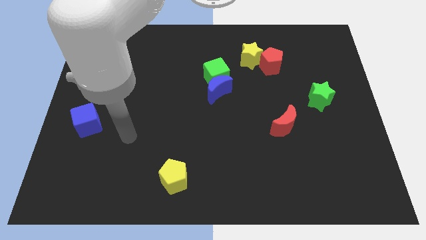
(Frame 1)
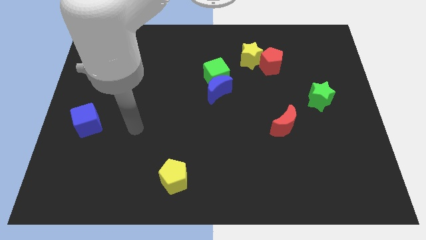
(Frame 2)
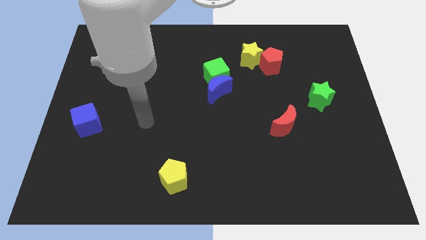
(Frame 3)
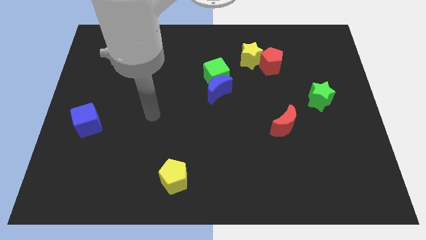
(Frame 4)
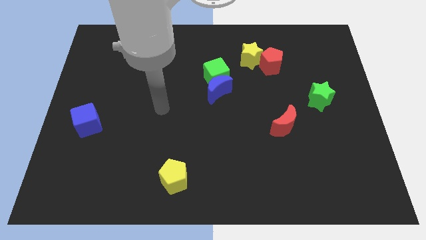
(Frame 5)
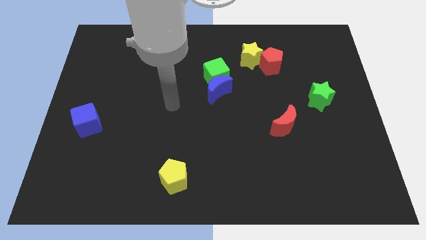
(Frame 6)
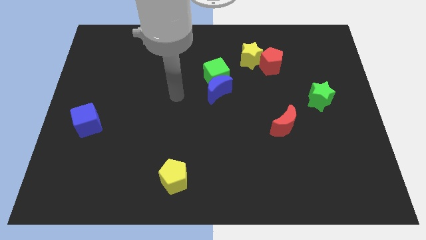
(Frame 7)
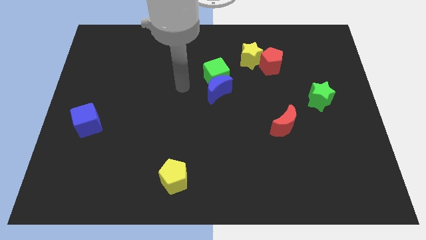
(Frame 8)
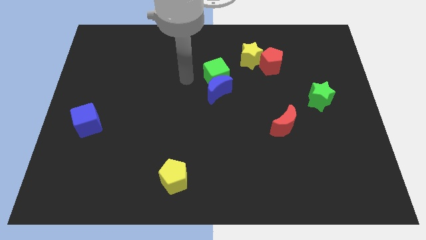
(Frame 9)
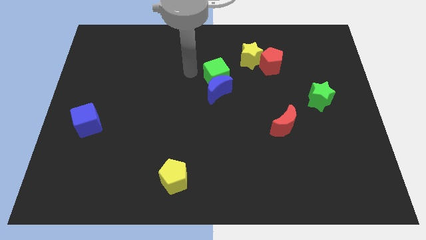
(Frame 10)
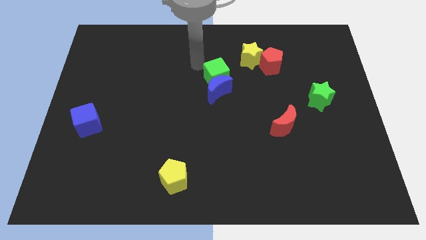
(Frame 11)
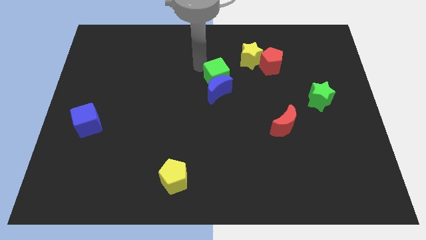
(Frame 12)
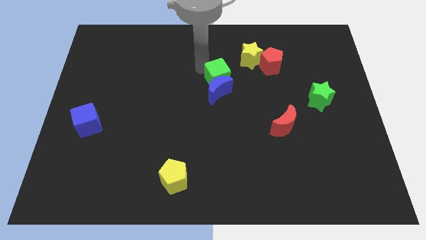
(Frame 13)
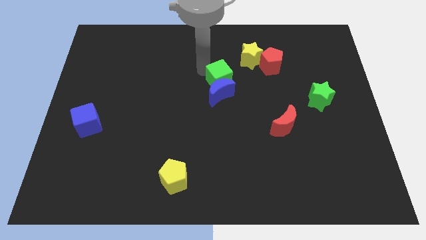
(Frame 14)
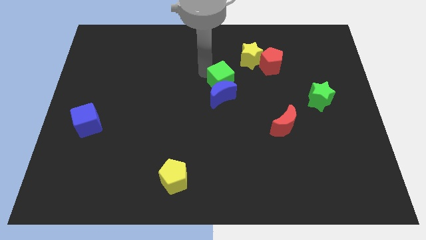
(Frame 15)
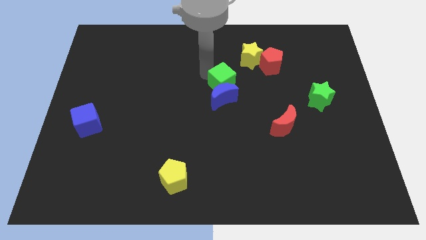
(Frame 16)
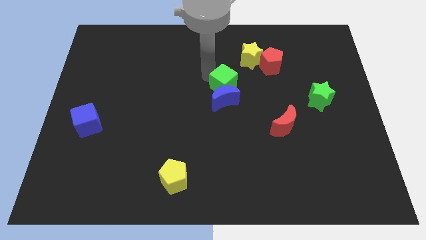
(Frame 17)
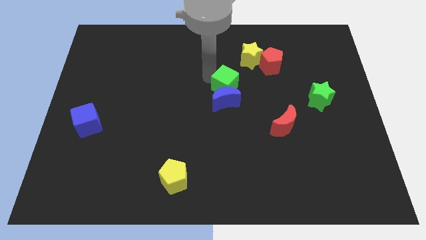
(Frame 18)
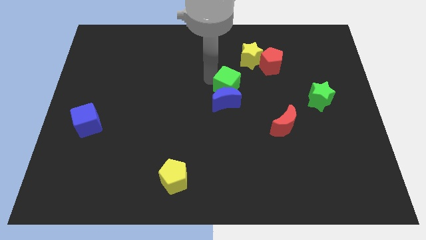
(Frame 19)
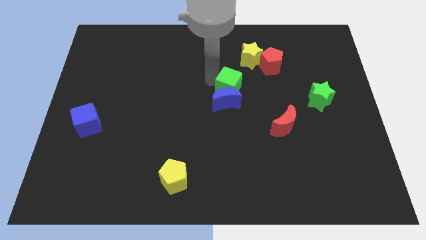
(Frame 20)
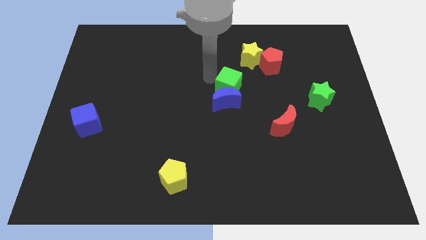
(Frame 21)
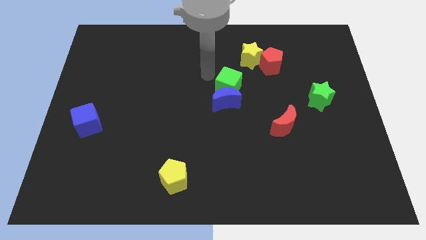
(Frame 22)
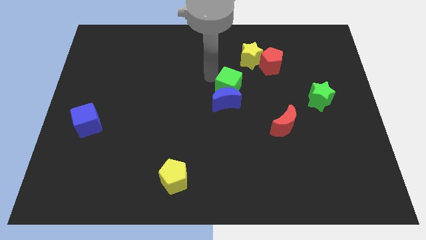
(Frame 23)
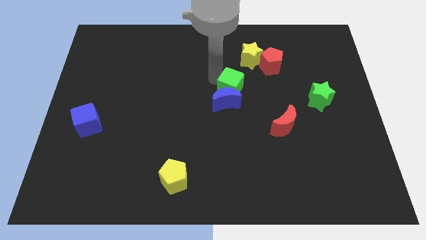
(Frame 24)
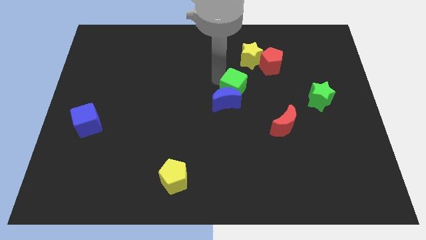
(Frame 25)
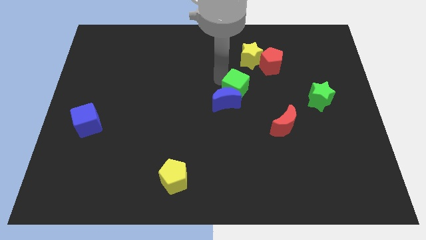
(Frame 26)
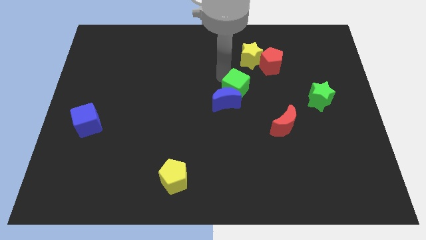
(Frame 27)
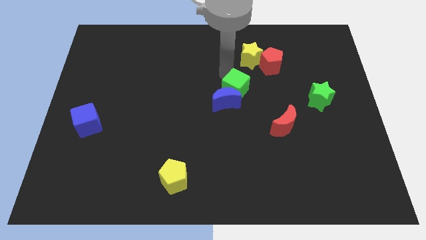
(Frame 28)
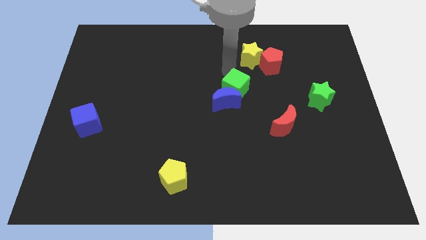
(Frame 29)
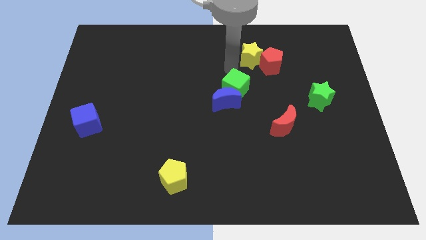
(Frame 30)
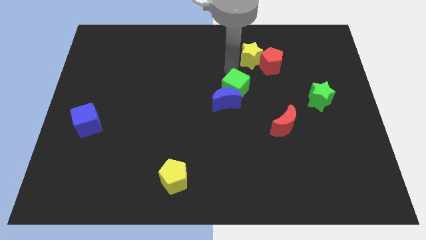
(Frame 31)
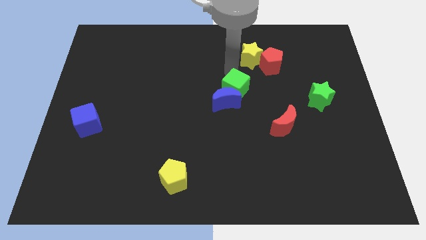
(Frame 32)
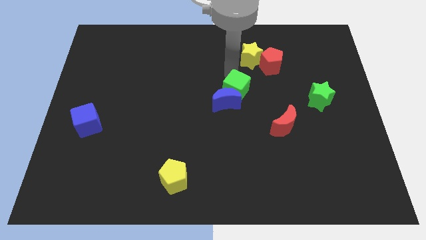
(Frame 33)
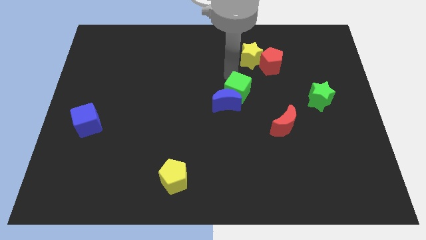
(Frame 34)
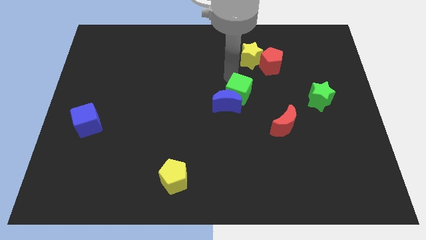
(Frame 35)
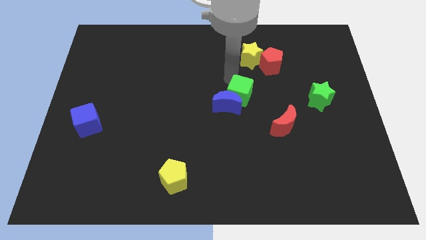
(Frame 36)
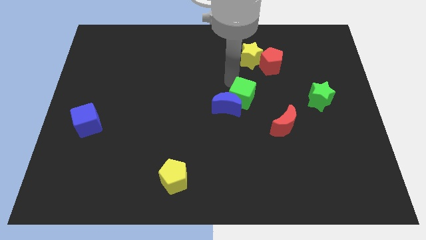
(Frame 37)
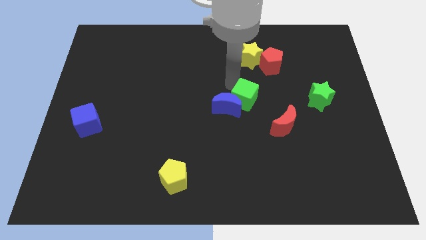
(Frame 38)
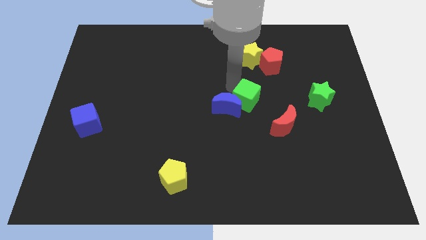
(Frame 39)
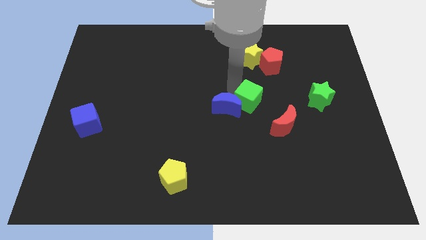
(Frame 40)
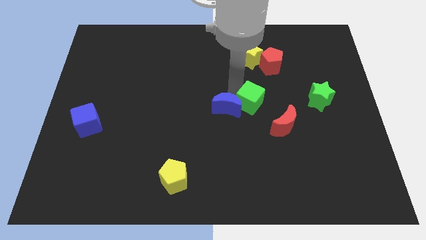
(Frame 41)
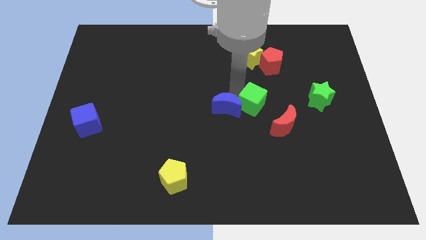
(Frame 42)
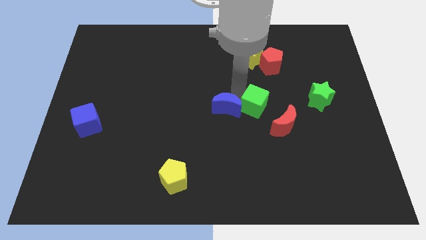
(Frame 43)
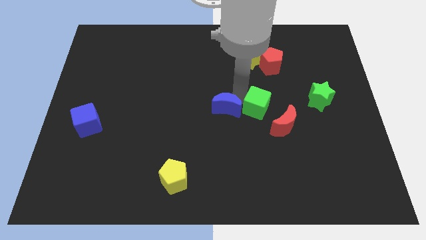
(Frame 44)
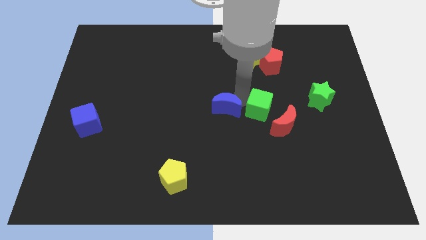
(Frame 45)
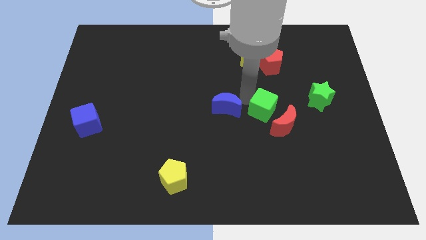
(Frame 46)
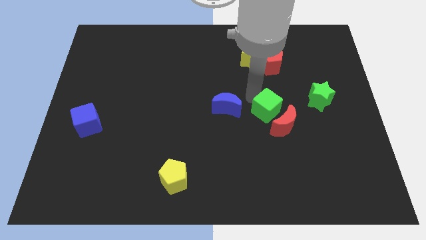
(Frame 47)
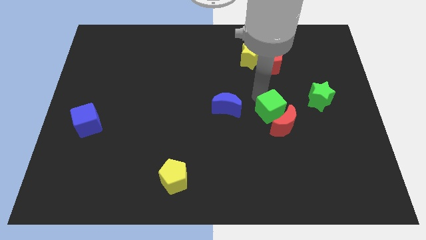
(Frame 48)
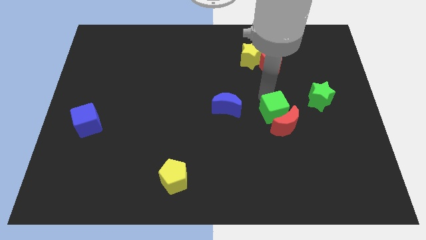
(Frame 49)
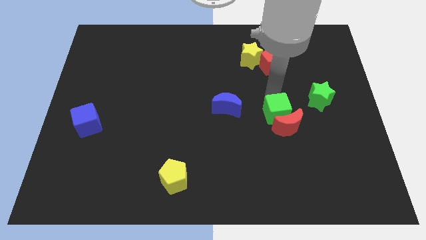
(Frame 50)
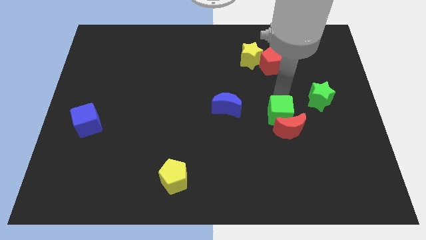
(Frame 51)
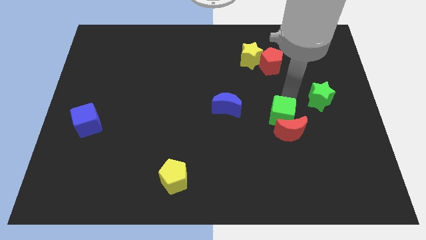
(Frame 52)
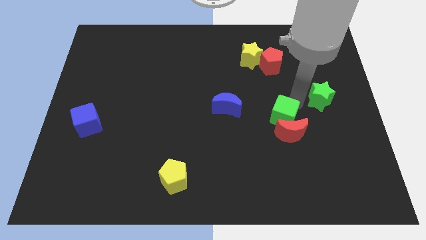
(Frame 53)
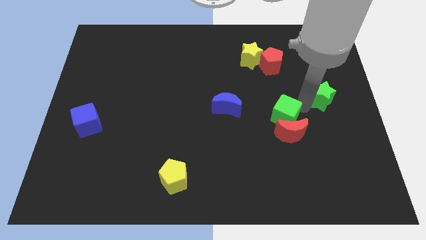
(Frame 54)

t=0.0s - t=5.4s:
move the green cube downwards and then to the right

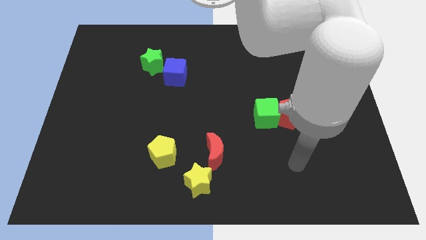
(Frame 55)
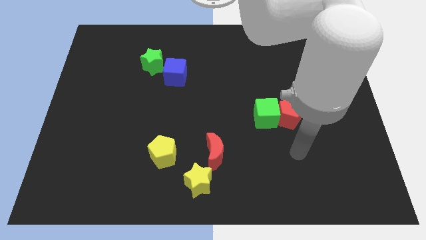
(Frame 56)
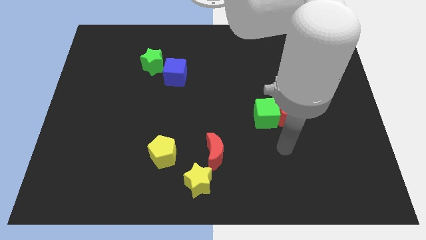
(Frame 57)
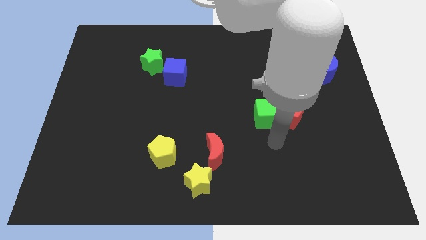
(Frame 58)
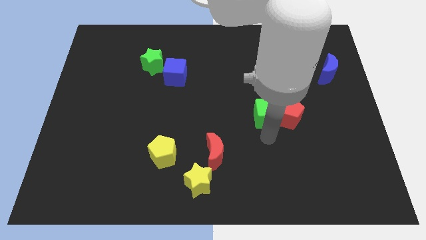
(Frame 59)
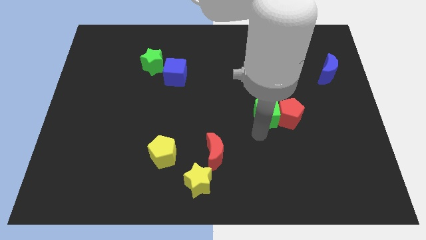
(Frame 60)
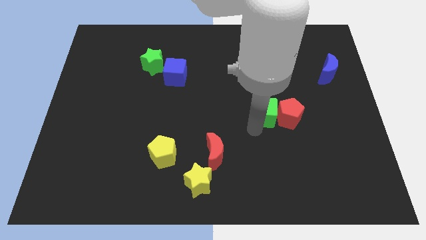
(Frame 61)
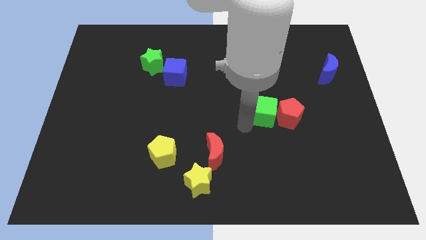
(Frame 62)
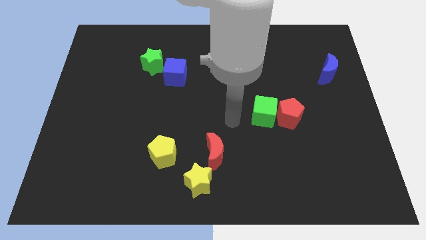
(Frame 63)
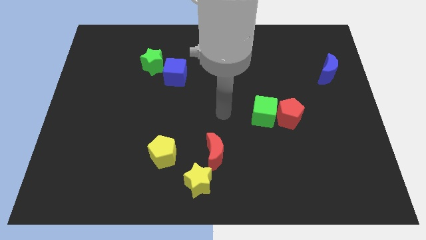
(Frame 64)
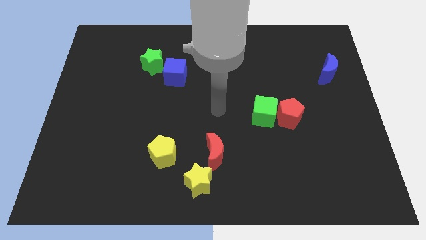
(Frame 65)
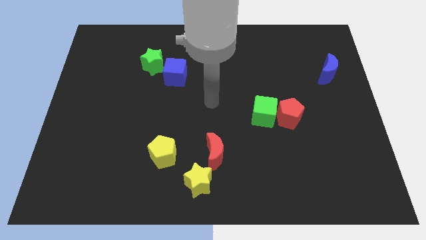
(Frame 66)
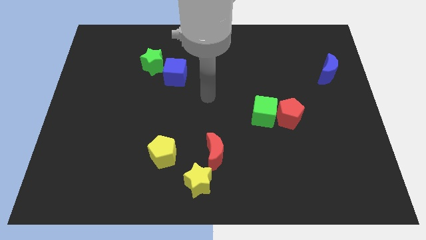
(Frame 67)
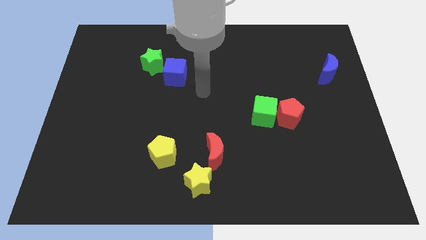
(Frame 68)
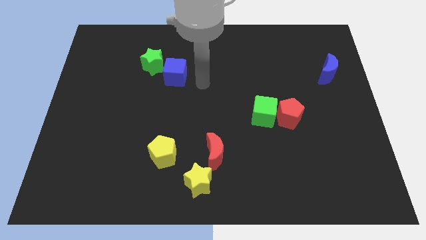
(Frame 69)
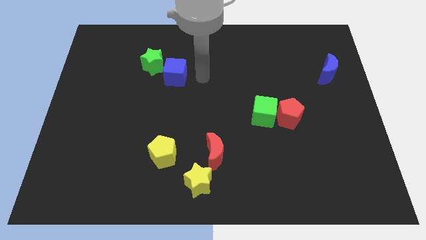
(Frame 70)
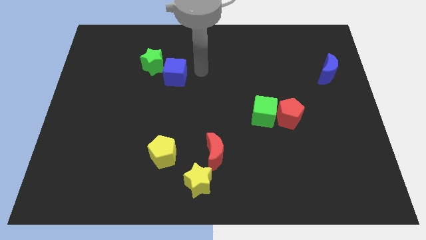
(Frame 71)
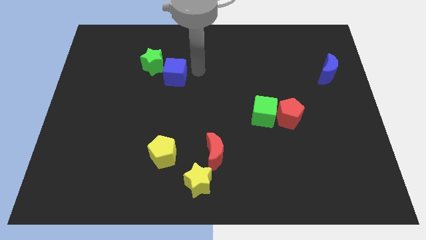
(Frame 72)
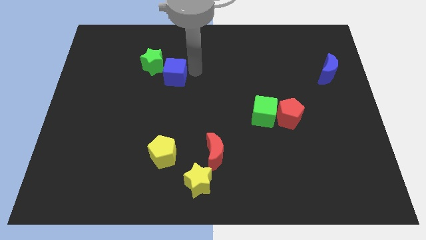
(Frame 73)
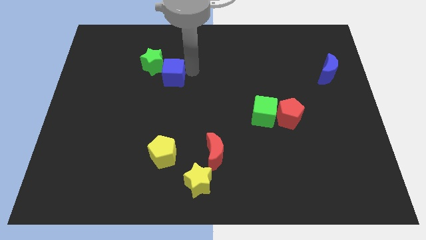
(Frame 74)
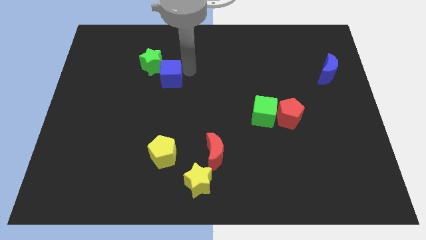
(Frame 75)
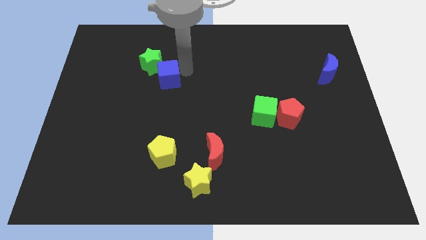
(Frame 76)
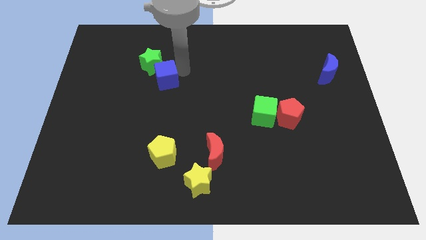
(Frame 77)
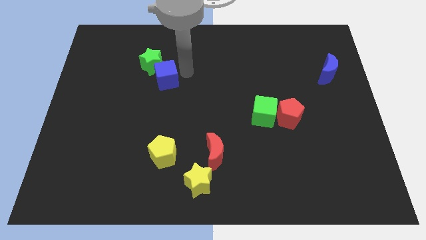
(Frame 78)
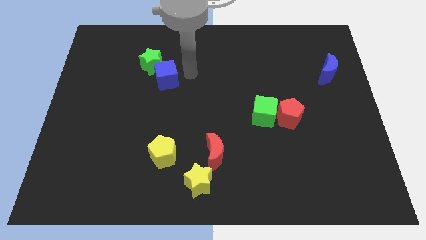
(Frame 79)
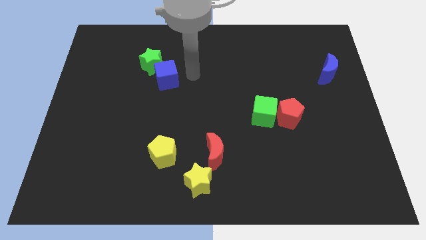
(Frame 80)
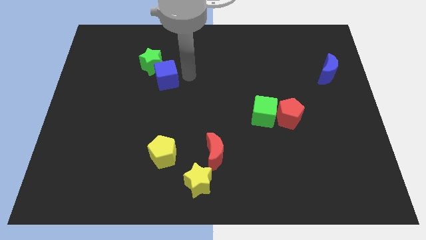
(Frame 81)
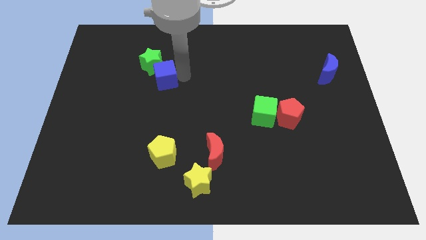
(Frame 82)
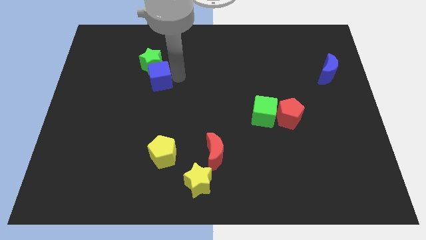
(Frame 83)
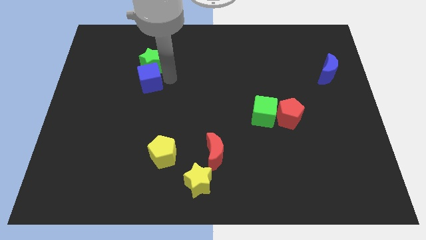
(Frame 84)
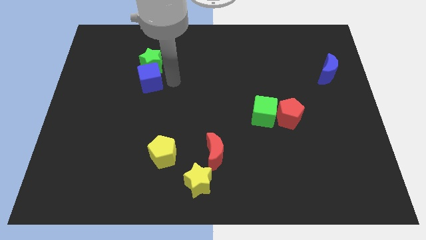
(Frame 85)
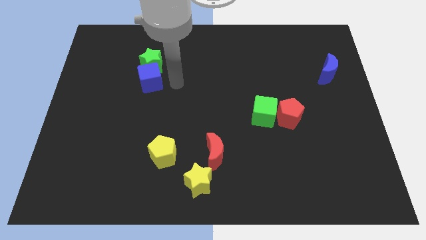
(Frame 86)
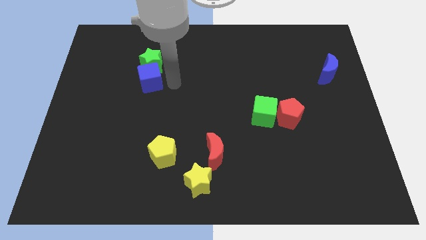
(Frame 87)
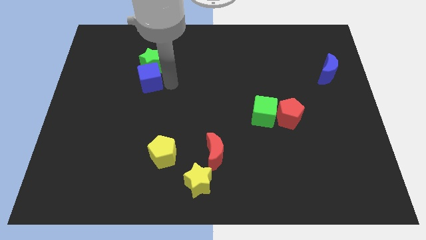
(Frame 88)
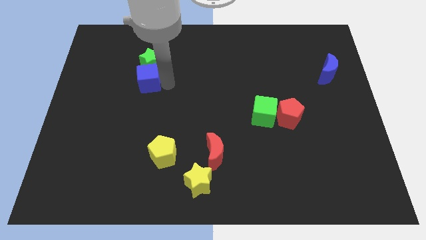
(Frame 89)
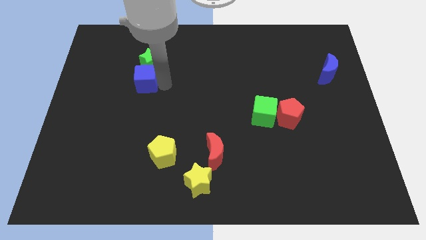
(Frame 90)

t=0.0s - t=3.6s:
move the blue cube to the left somewhat
